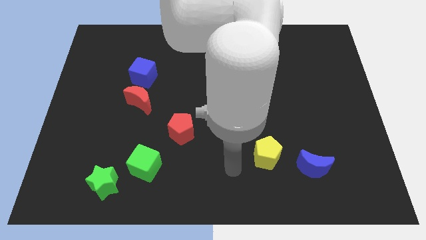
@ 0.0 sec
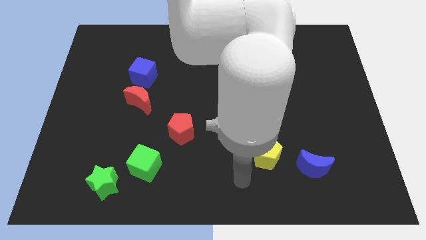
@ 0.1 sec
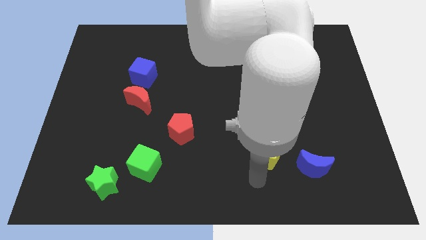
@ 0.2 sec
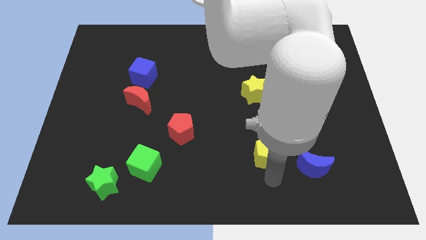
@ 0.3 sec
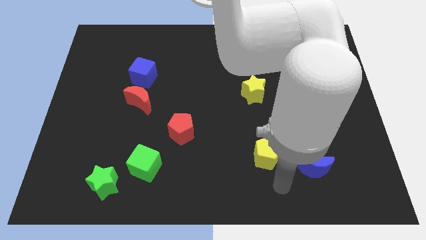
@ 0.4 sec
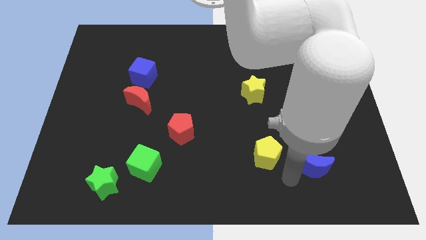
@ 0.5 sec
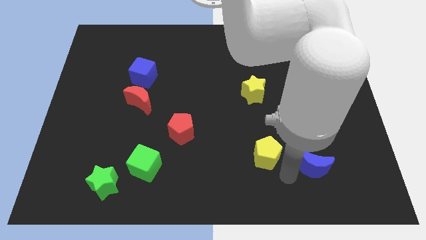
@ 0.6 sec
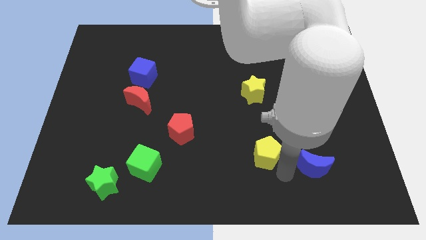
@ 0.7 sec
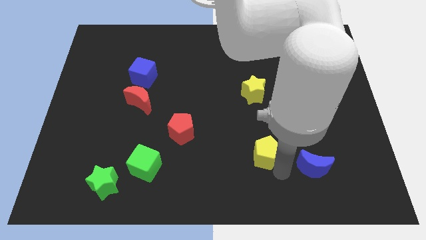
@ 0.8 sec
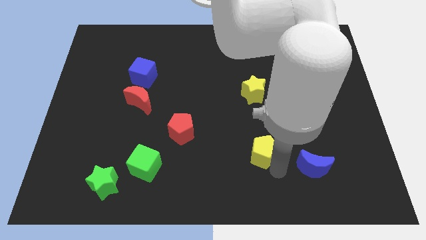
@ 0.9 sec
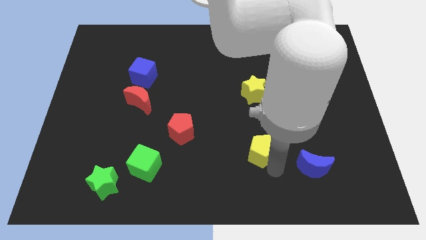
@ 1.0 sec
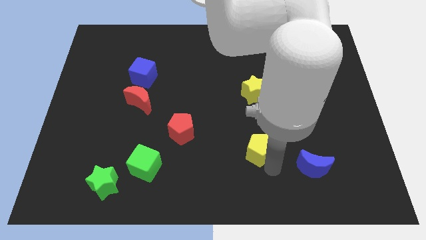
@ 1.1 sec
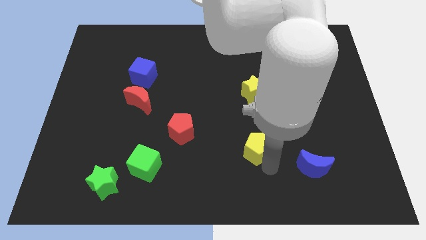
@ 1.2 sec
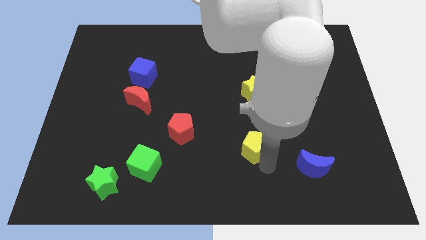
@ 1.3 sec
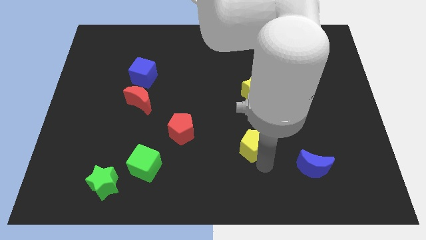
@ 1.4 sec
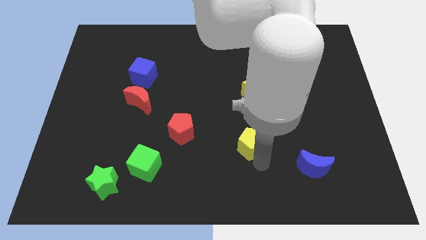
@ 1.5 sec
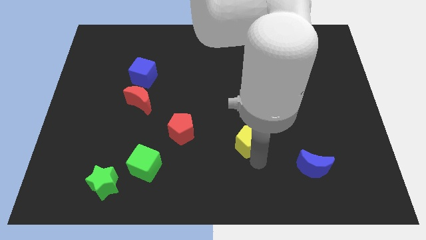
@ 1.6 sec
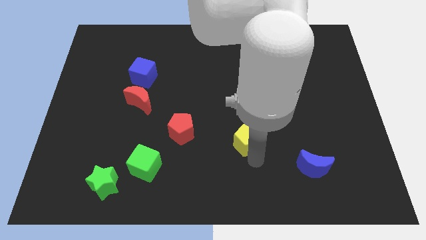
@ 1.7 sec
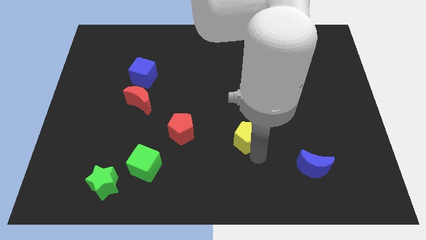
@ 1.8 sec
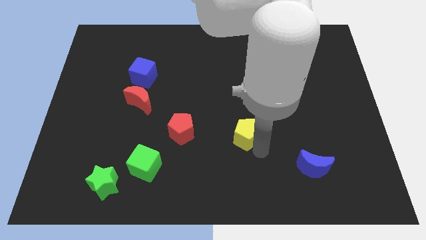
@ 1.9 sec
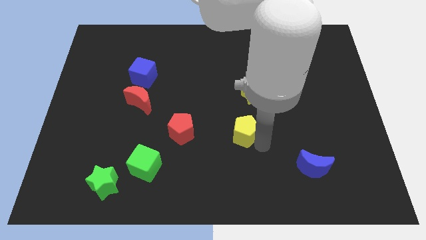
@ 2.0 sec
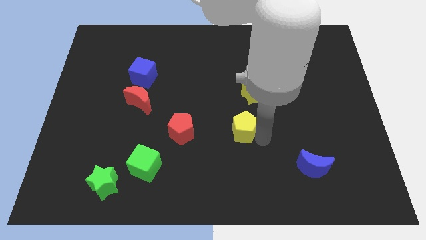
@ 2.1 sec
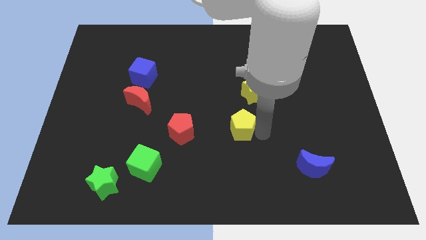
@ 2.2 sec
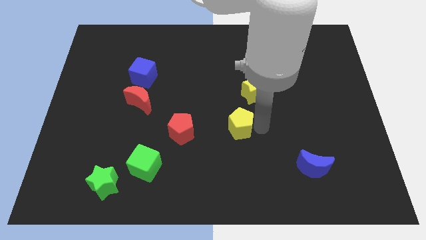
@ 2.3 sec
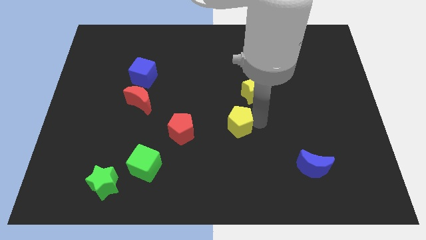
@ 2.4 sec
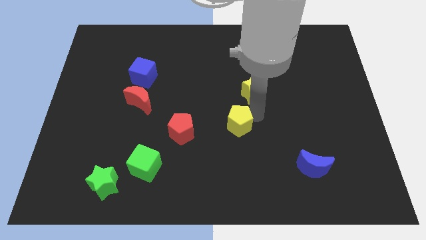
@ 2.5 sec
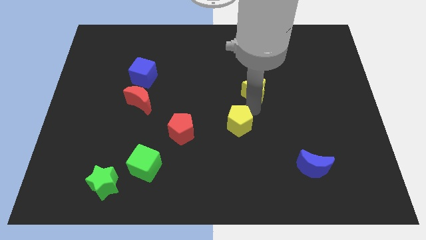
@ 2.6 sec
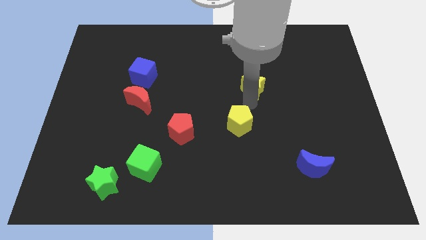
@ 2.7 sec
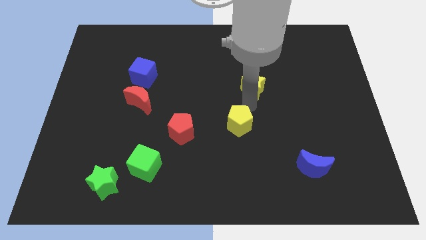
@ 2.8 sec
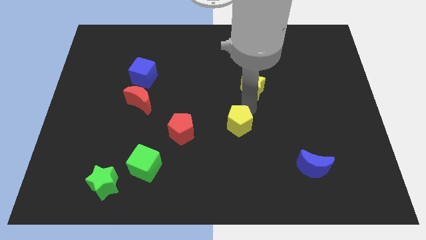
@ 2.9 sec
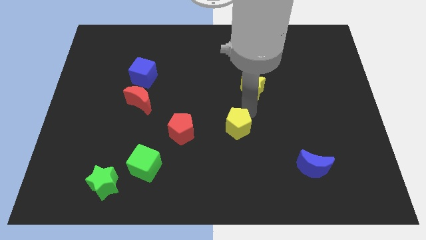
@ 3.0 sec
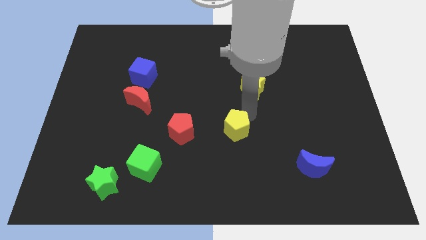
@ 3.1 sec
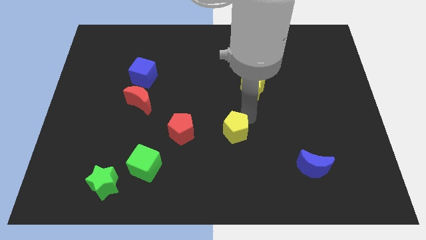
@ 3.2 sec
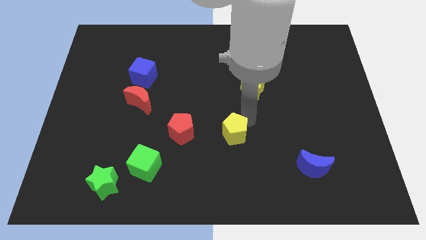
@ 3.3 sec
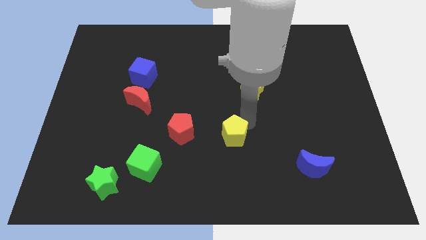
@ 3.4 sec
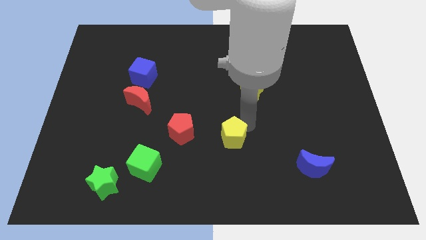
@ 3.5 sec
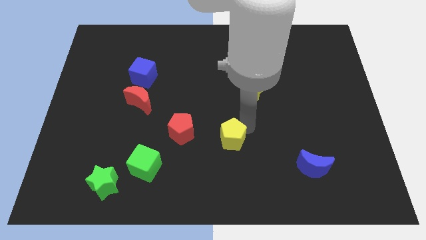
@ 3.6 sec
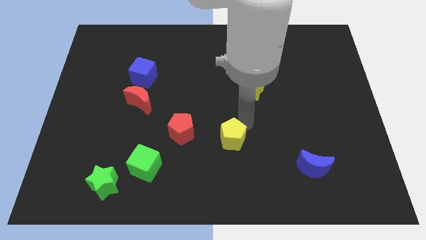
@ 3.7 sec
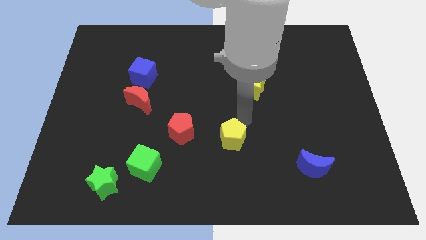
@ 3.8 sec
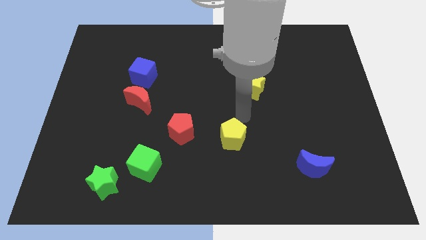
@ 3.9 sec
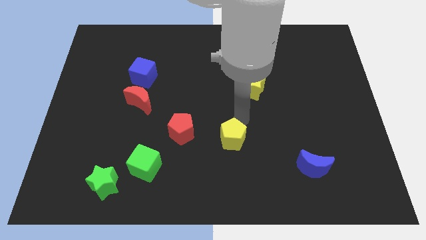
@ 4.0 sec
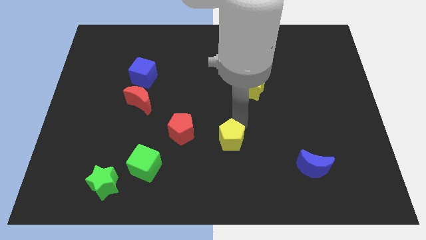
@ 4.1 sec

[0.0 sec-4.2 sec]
slightly slide the yellow pentagon to the left

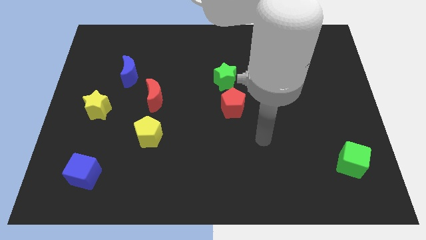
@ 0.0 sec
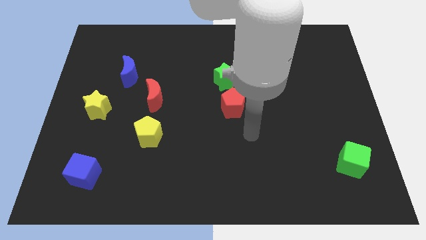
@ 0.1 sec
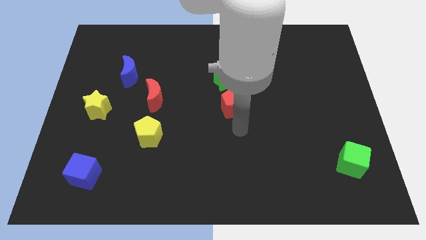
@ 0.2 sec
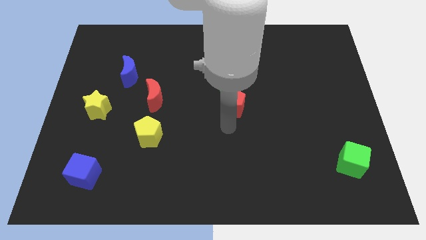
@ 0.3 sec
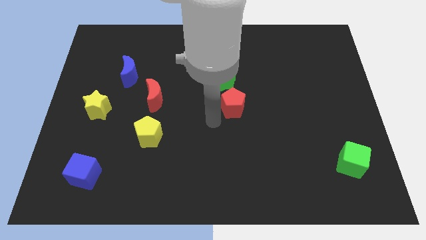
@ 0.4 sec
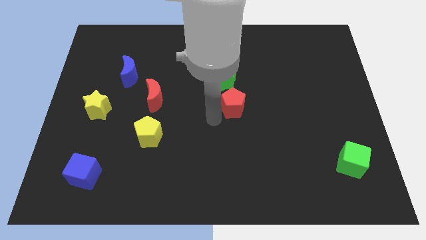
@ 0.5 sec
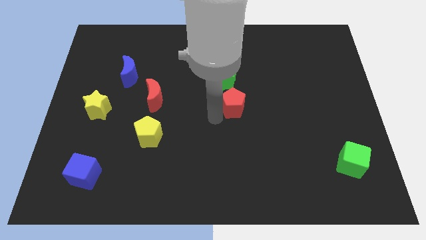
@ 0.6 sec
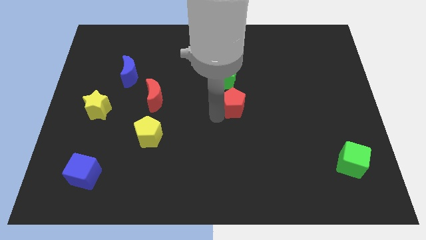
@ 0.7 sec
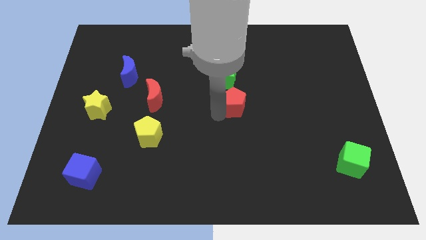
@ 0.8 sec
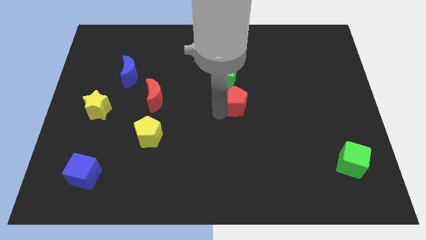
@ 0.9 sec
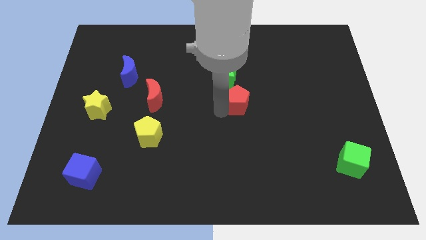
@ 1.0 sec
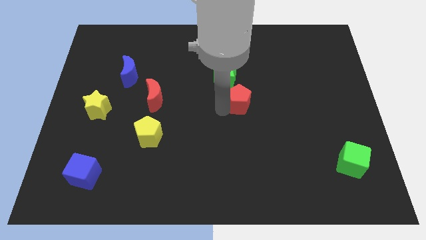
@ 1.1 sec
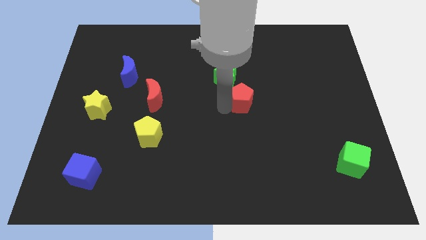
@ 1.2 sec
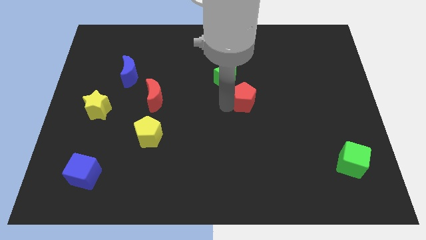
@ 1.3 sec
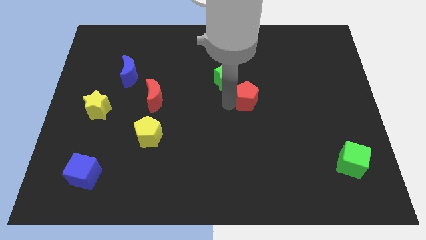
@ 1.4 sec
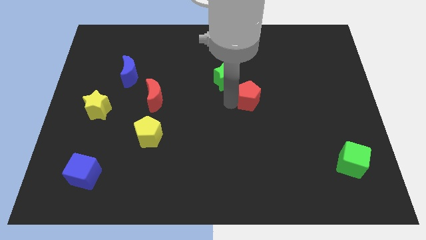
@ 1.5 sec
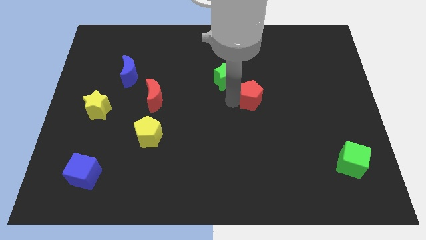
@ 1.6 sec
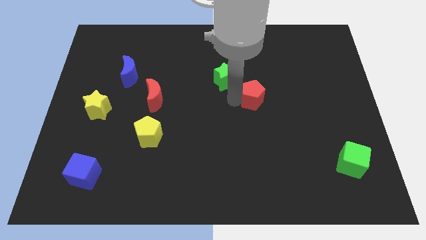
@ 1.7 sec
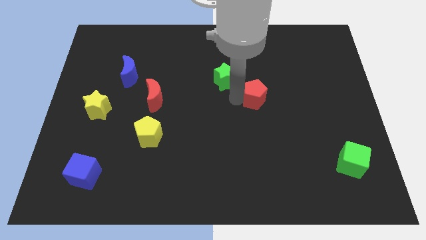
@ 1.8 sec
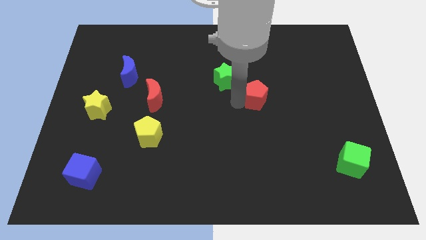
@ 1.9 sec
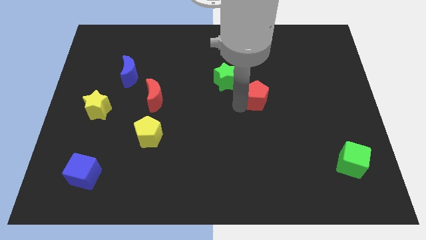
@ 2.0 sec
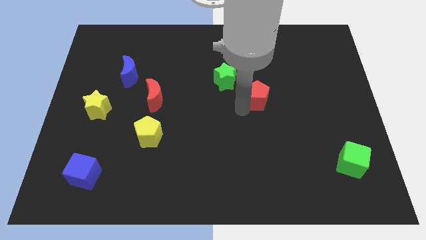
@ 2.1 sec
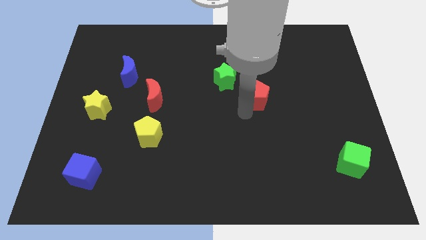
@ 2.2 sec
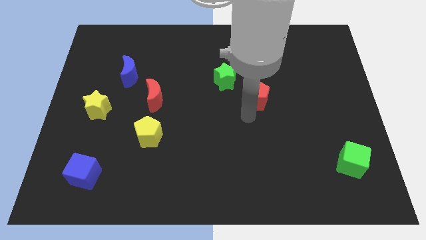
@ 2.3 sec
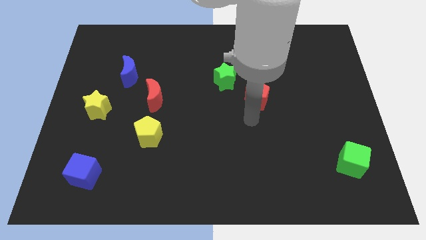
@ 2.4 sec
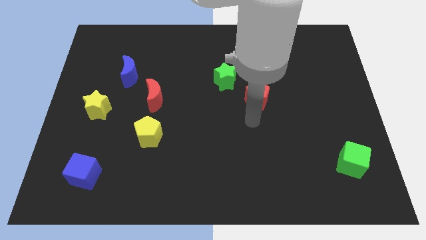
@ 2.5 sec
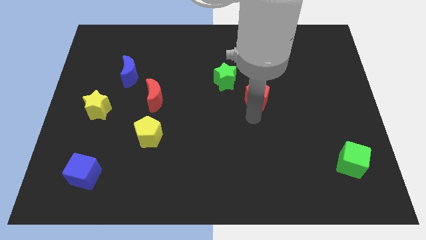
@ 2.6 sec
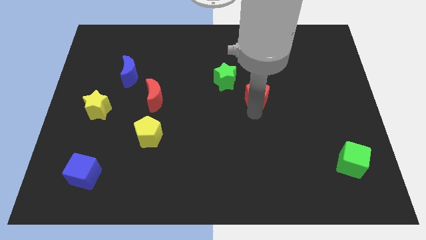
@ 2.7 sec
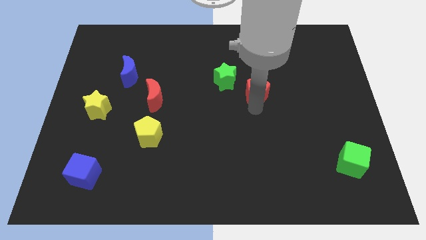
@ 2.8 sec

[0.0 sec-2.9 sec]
move the red pentagon a little upwards and right diagonally

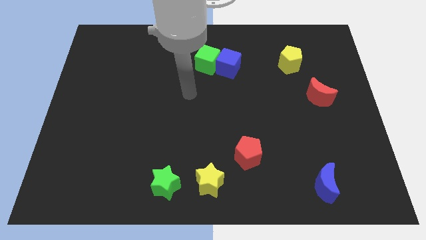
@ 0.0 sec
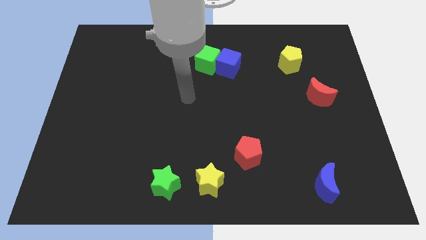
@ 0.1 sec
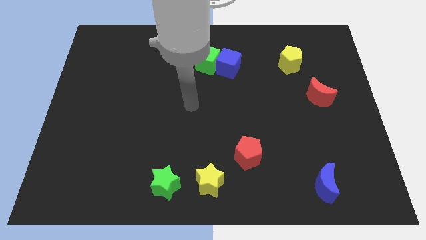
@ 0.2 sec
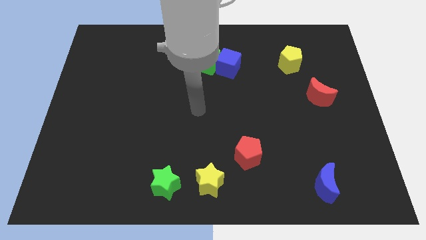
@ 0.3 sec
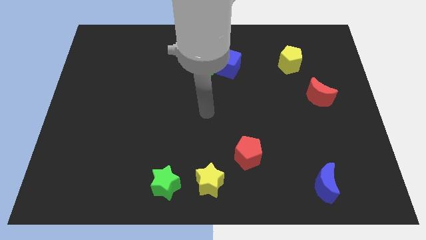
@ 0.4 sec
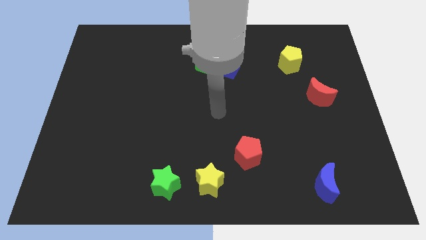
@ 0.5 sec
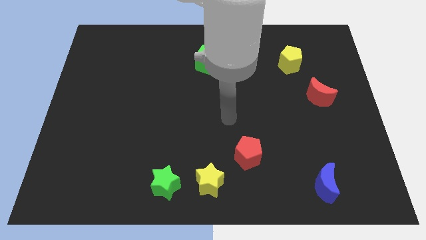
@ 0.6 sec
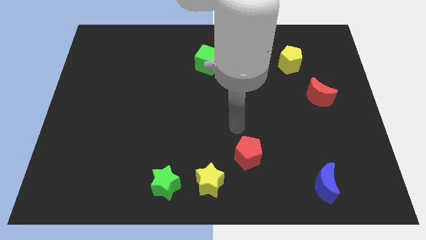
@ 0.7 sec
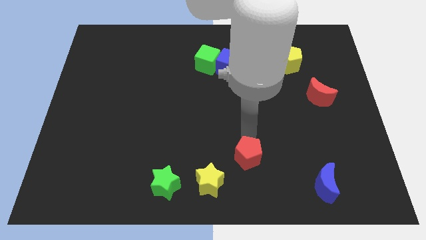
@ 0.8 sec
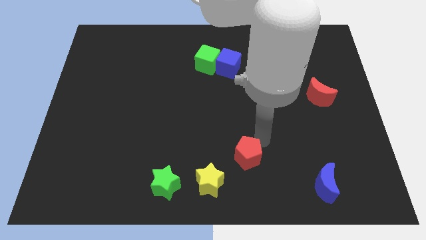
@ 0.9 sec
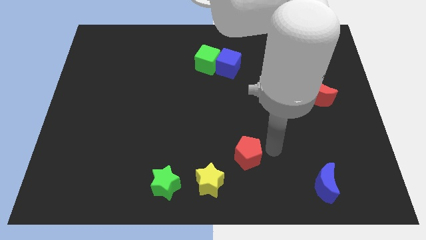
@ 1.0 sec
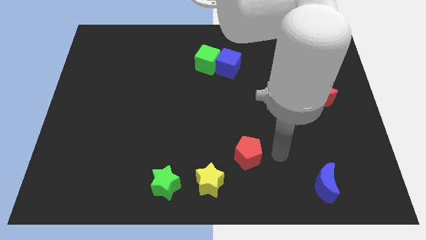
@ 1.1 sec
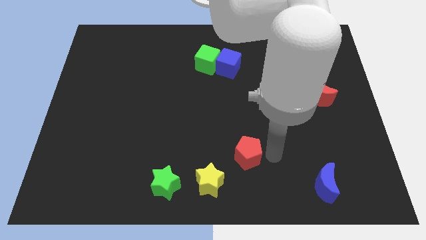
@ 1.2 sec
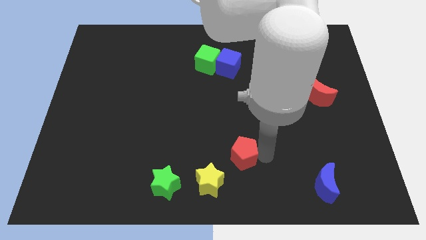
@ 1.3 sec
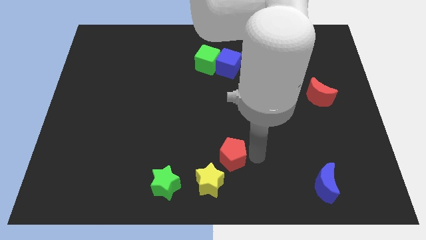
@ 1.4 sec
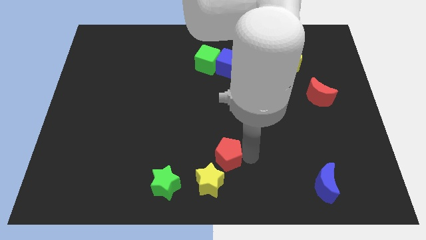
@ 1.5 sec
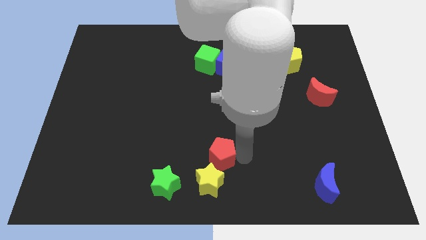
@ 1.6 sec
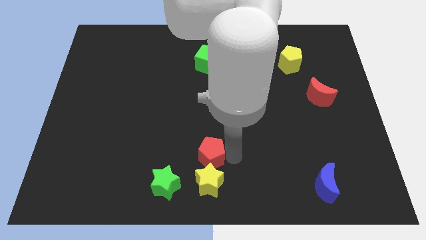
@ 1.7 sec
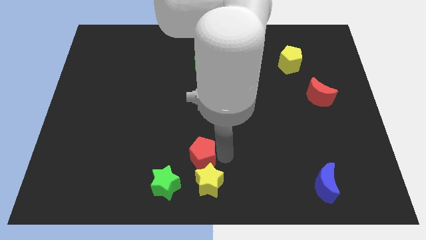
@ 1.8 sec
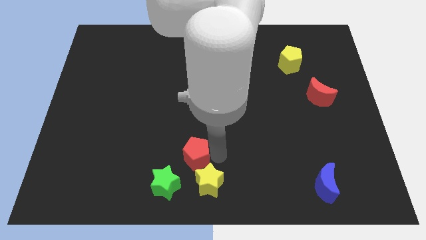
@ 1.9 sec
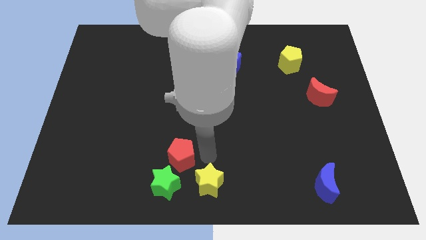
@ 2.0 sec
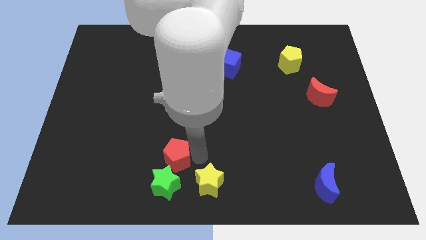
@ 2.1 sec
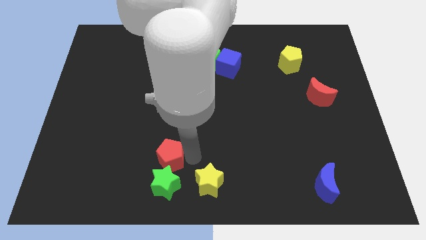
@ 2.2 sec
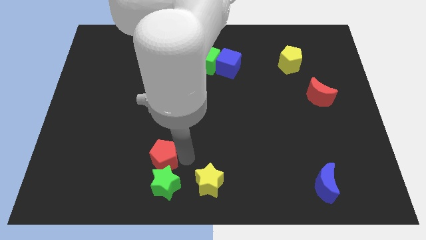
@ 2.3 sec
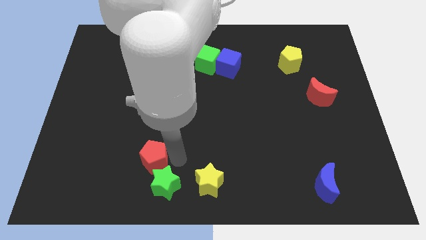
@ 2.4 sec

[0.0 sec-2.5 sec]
move the red pentagon to the left
